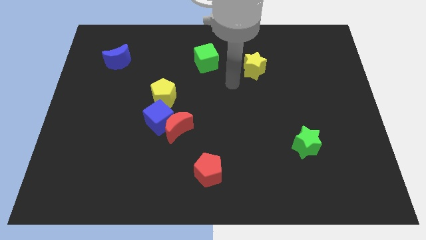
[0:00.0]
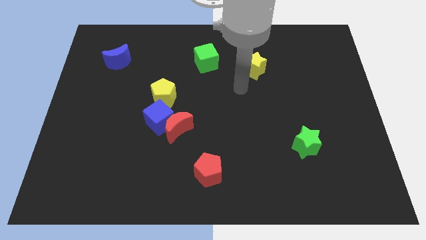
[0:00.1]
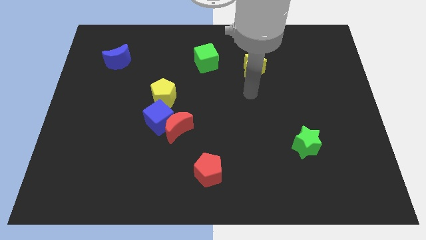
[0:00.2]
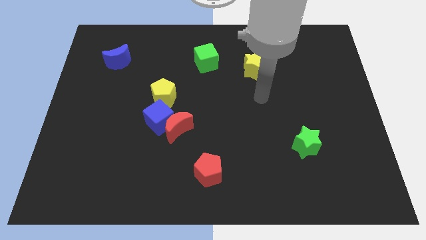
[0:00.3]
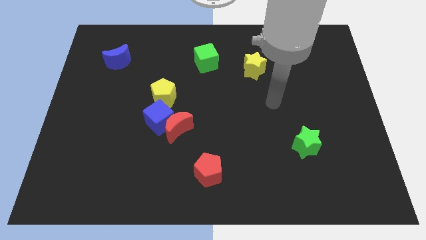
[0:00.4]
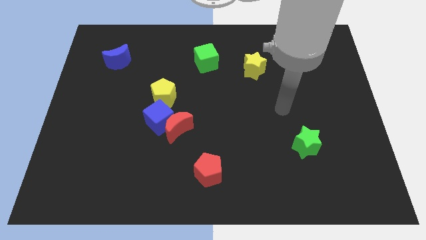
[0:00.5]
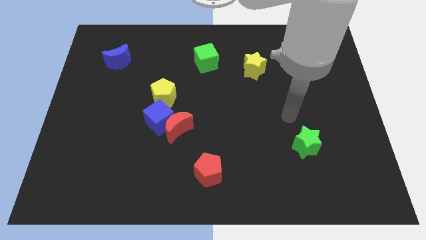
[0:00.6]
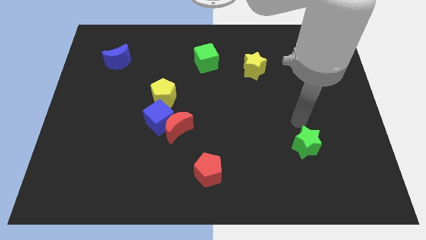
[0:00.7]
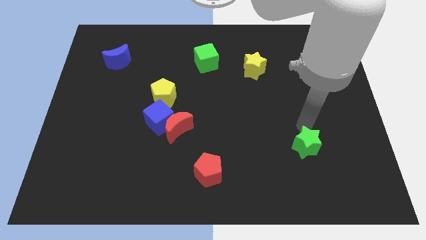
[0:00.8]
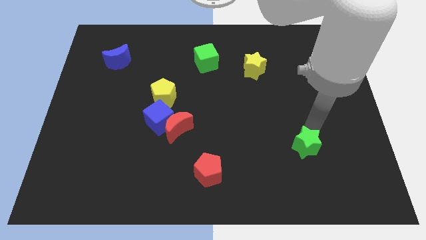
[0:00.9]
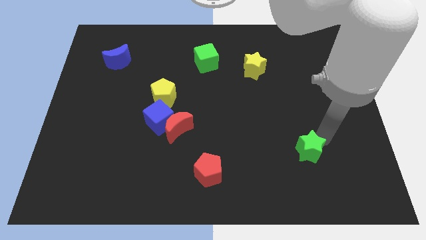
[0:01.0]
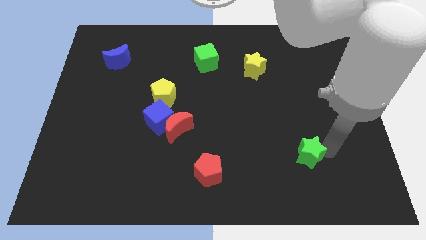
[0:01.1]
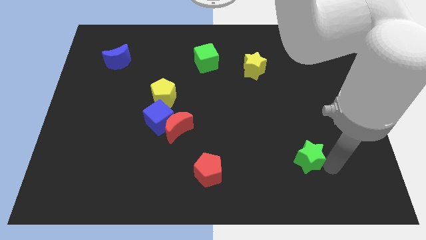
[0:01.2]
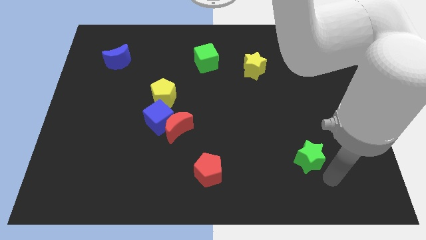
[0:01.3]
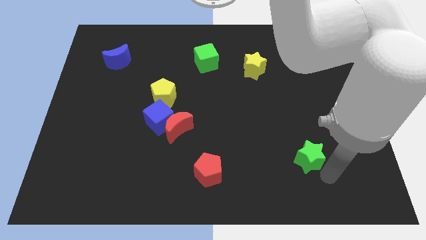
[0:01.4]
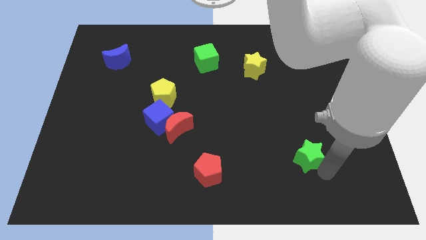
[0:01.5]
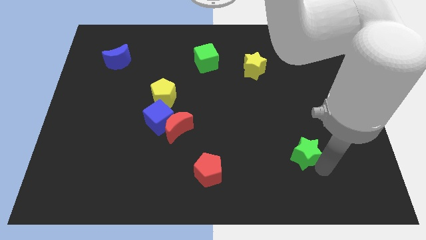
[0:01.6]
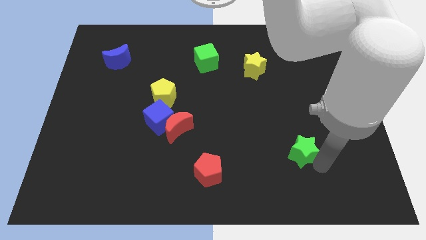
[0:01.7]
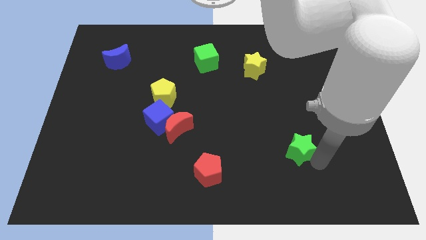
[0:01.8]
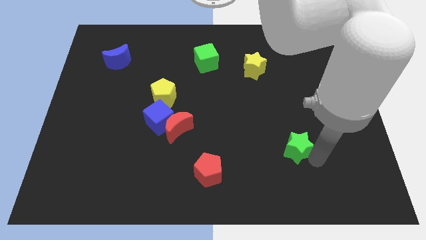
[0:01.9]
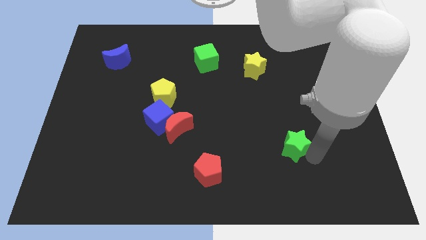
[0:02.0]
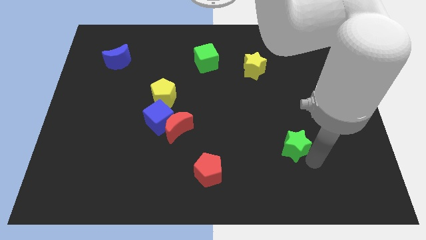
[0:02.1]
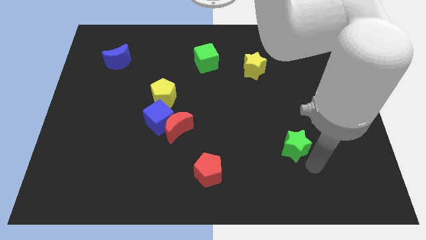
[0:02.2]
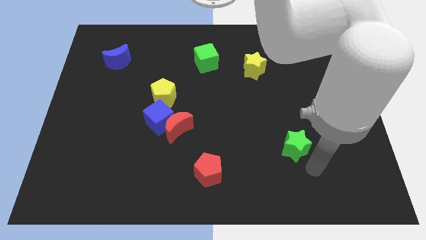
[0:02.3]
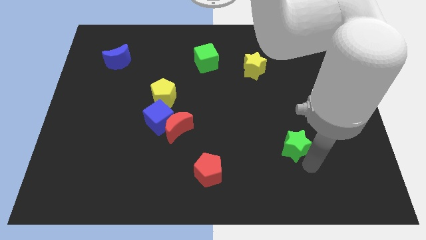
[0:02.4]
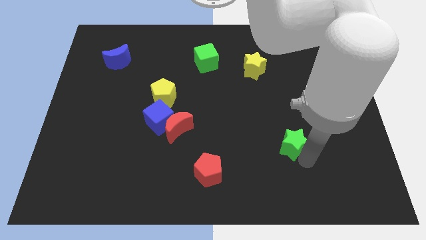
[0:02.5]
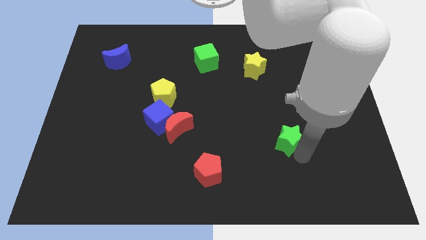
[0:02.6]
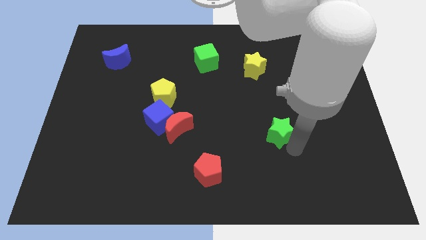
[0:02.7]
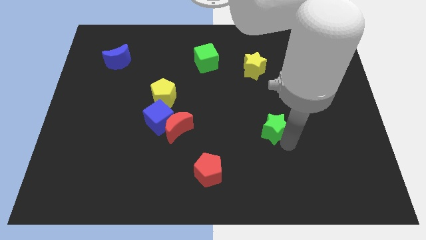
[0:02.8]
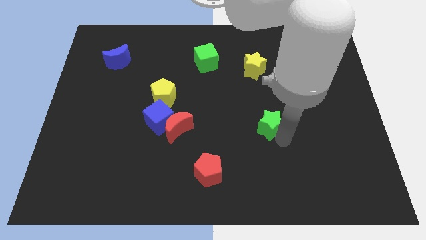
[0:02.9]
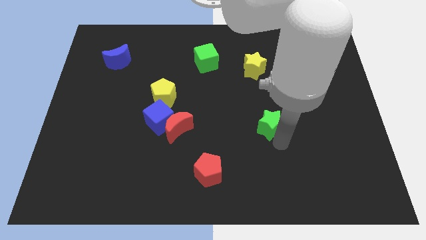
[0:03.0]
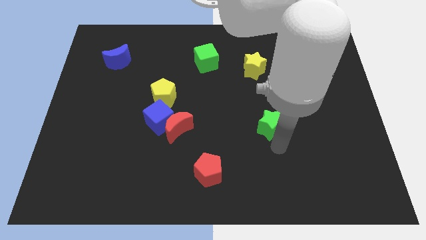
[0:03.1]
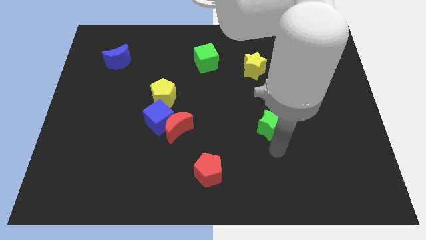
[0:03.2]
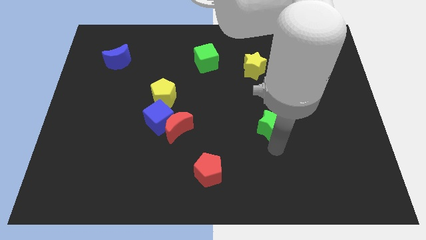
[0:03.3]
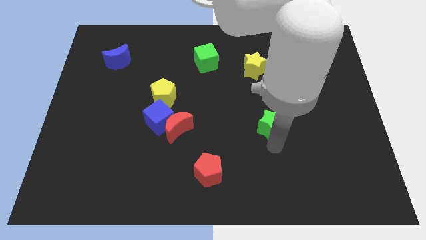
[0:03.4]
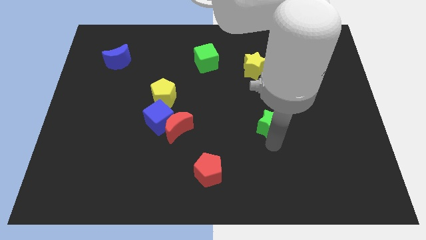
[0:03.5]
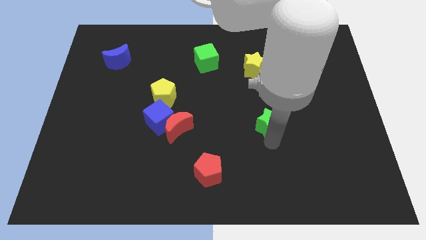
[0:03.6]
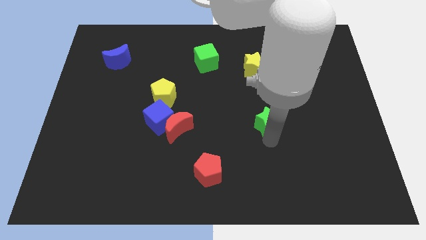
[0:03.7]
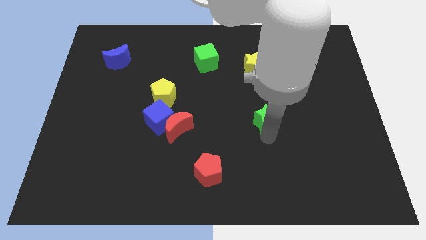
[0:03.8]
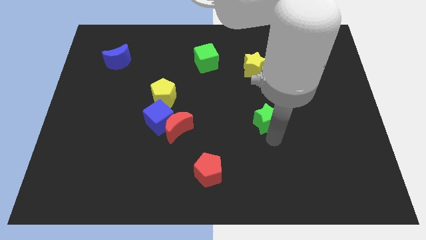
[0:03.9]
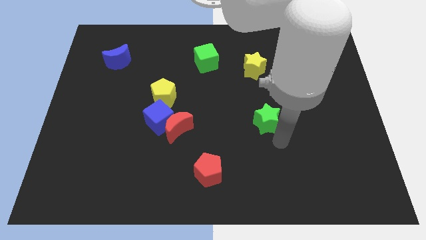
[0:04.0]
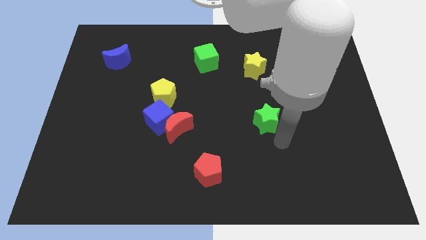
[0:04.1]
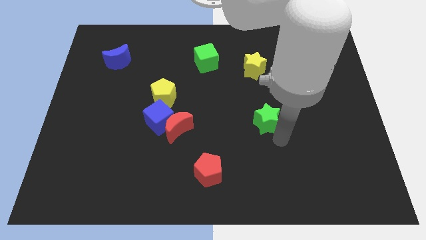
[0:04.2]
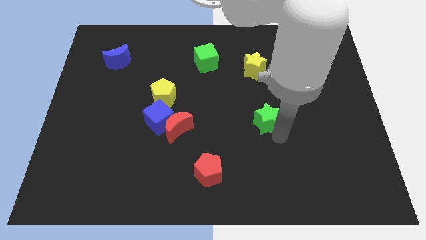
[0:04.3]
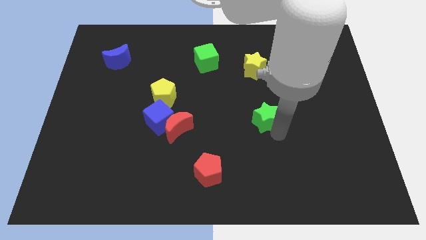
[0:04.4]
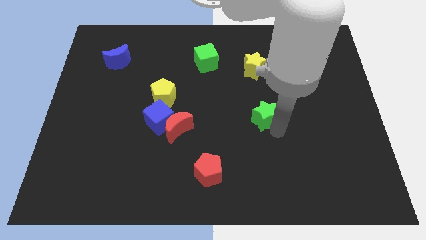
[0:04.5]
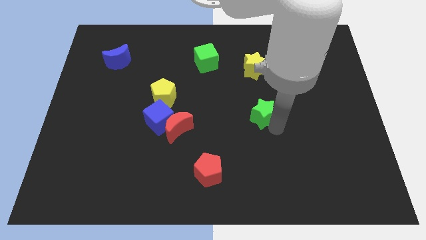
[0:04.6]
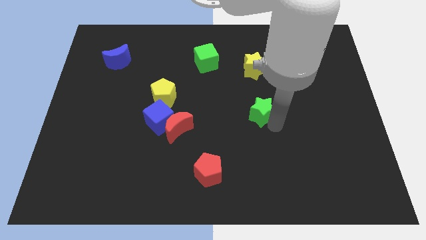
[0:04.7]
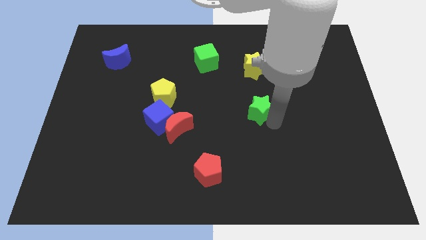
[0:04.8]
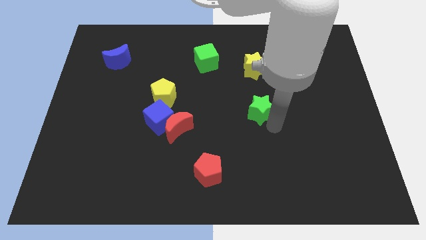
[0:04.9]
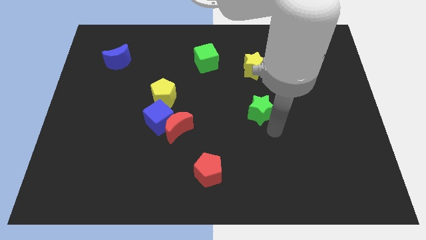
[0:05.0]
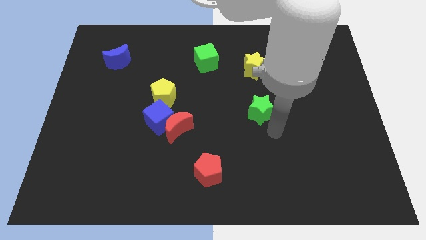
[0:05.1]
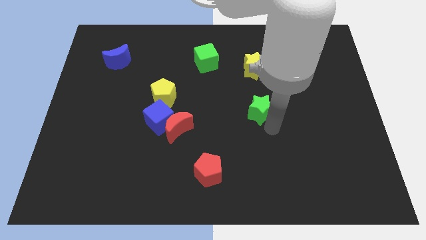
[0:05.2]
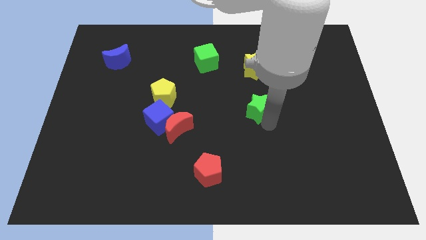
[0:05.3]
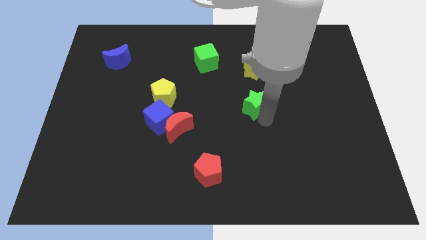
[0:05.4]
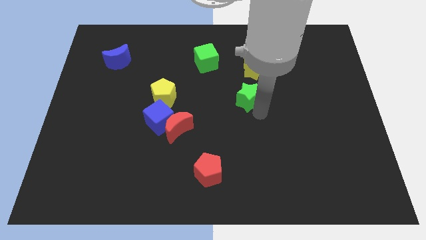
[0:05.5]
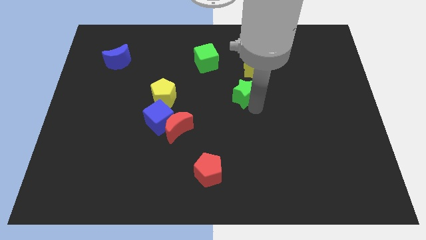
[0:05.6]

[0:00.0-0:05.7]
move the green star to the bottom left side of the yellow star
